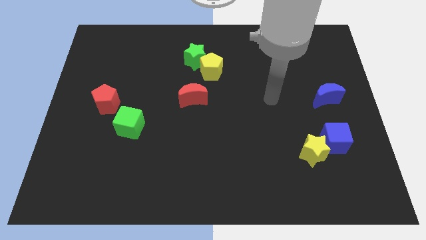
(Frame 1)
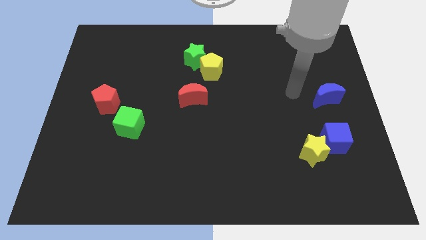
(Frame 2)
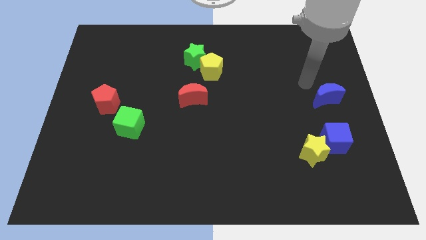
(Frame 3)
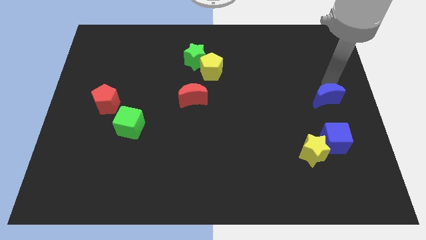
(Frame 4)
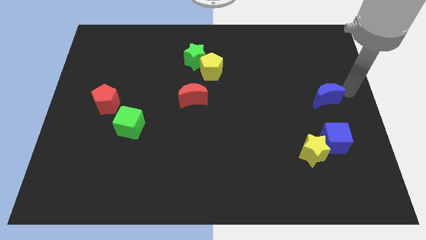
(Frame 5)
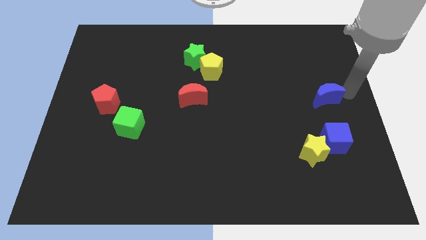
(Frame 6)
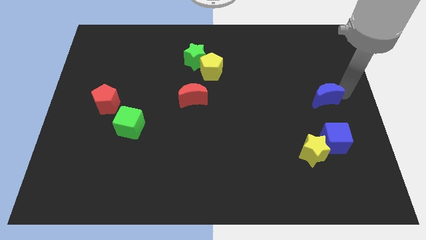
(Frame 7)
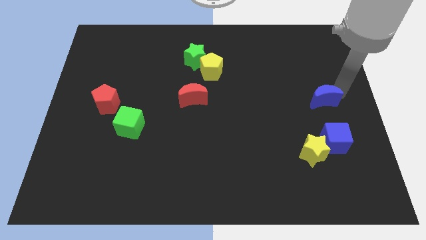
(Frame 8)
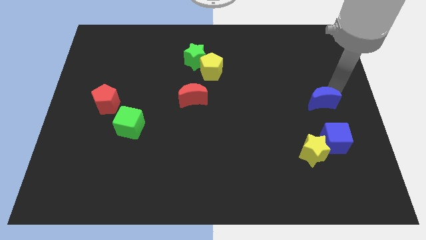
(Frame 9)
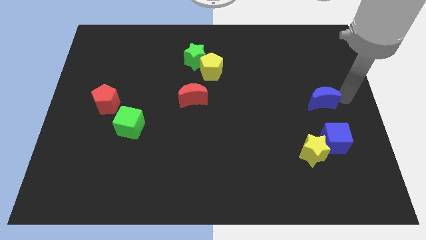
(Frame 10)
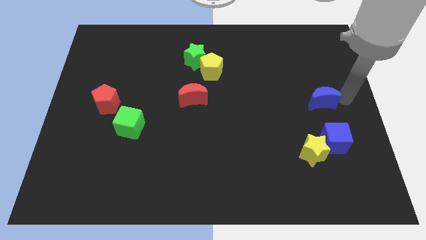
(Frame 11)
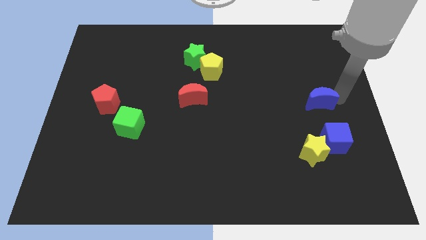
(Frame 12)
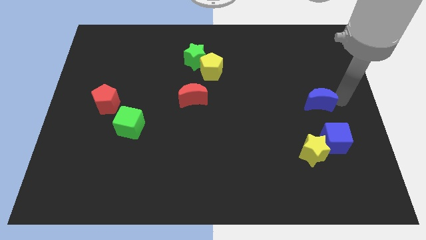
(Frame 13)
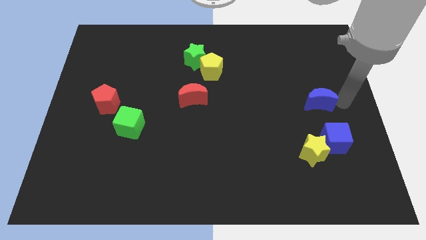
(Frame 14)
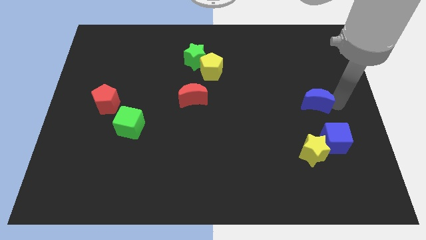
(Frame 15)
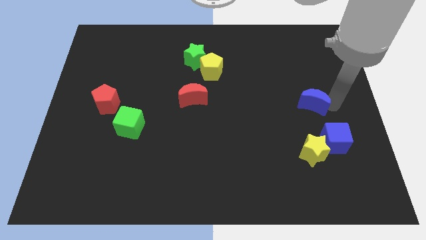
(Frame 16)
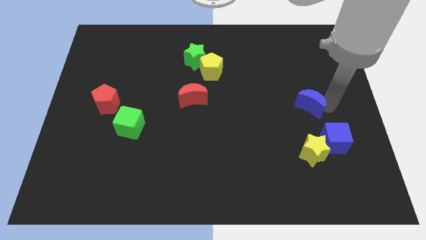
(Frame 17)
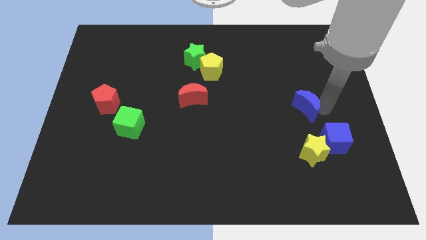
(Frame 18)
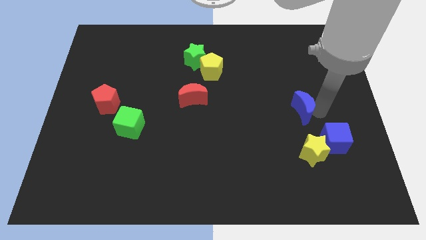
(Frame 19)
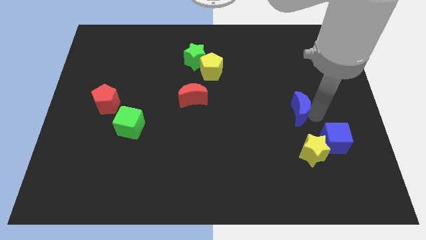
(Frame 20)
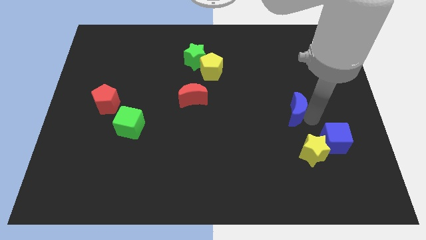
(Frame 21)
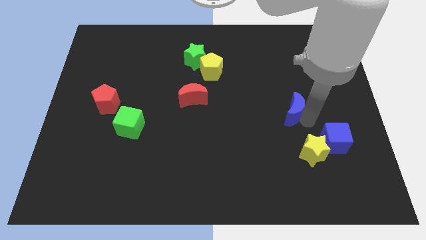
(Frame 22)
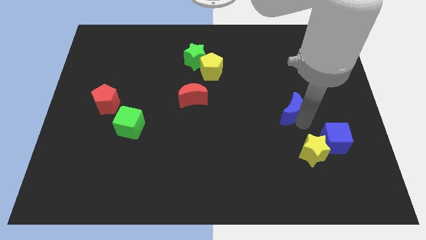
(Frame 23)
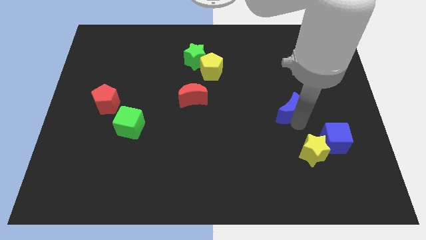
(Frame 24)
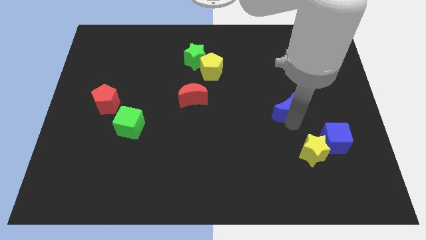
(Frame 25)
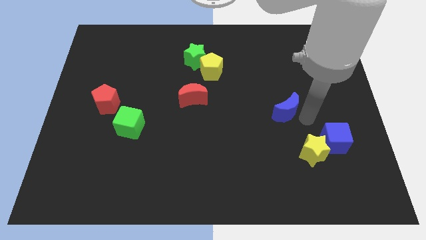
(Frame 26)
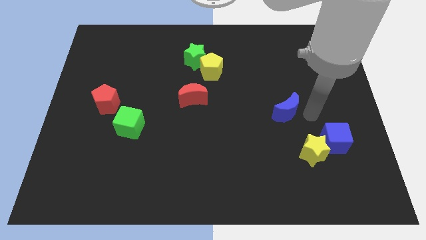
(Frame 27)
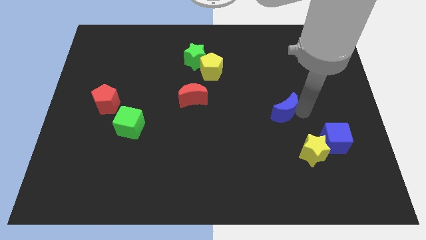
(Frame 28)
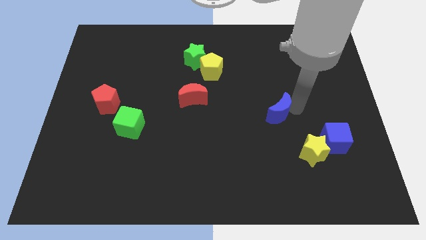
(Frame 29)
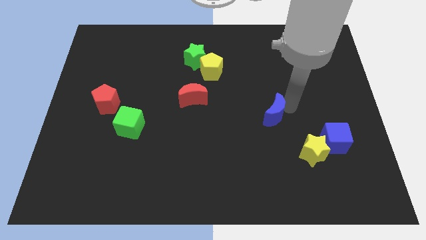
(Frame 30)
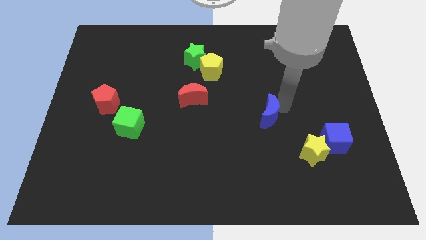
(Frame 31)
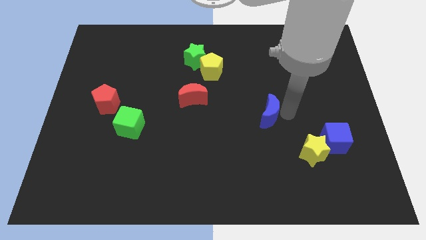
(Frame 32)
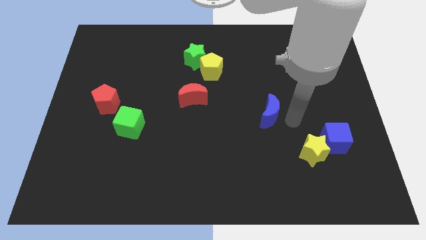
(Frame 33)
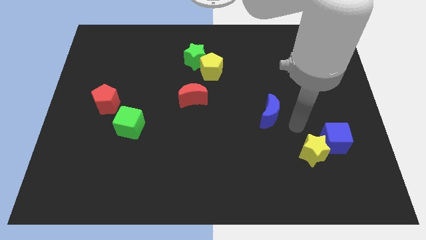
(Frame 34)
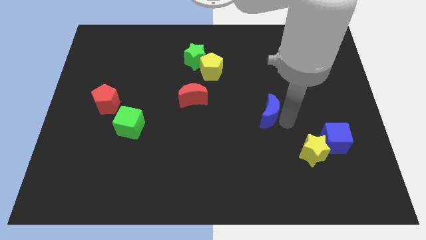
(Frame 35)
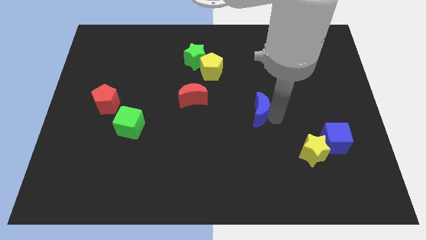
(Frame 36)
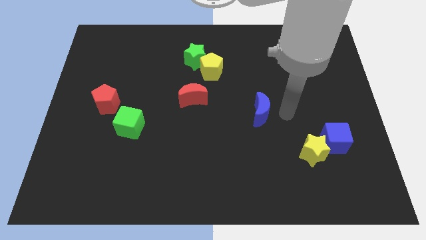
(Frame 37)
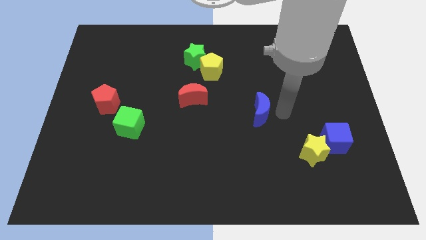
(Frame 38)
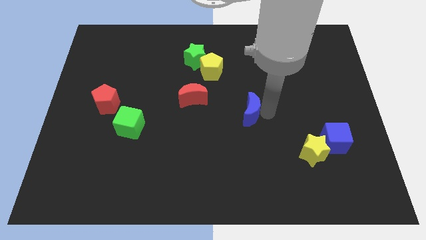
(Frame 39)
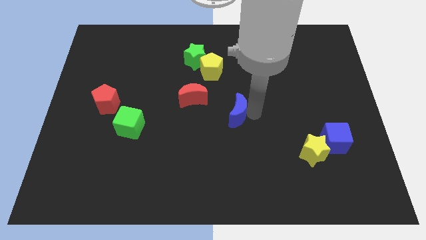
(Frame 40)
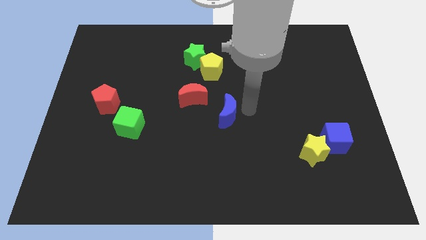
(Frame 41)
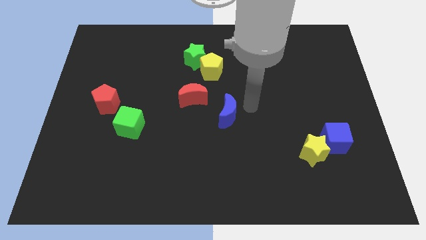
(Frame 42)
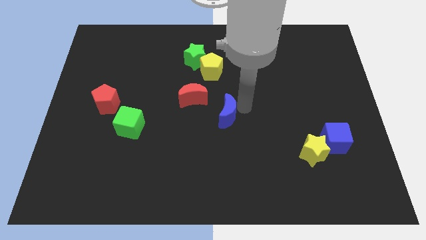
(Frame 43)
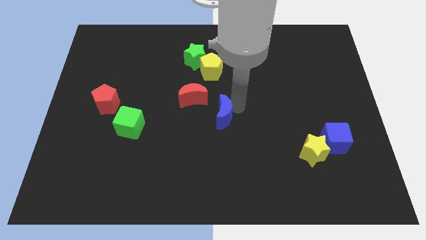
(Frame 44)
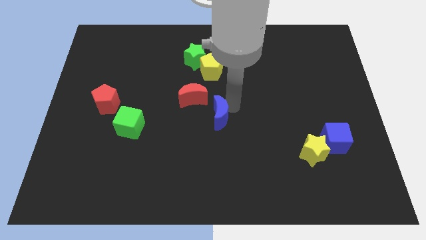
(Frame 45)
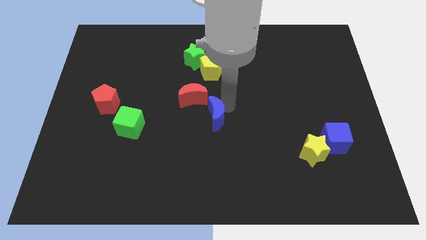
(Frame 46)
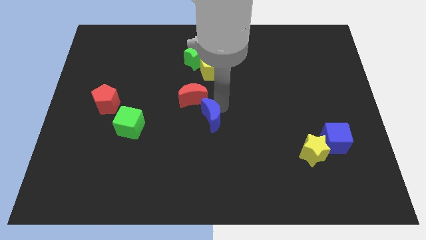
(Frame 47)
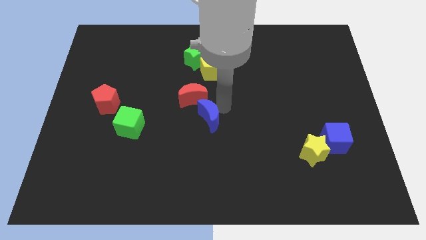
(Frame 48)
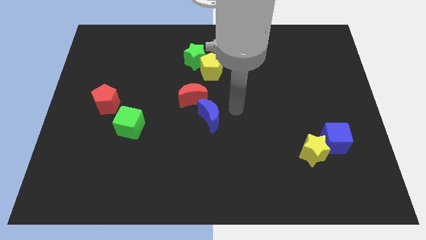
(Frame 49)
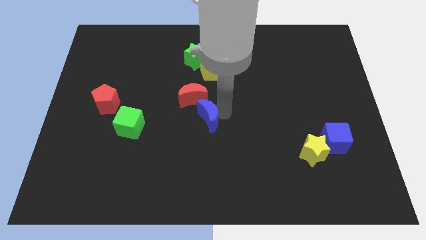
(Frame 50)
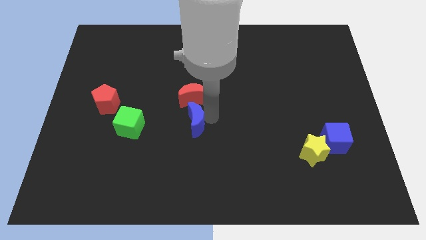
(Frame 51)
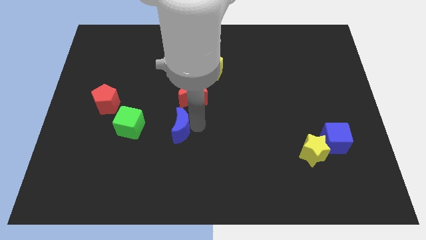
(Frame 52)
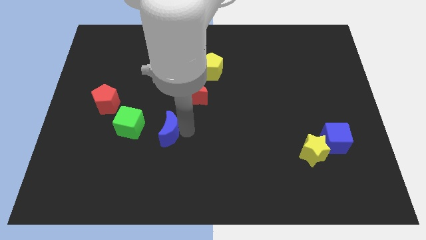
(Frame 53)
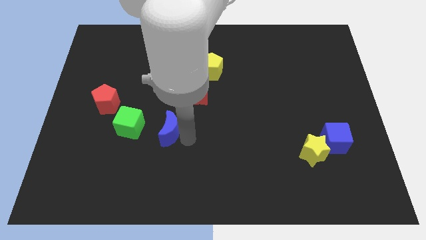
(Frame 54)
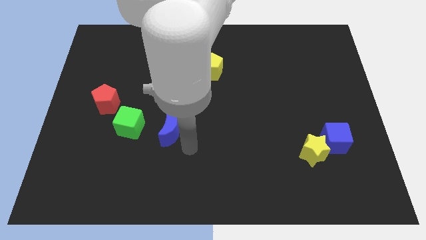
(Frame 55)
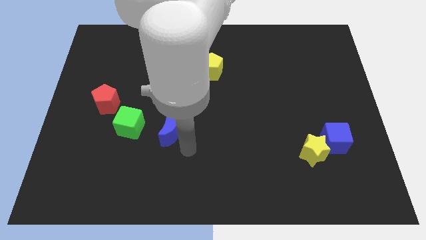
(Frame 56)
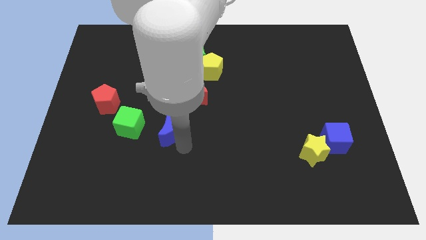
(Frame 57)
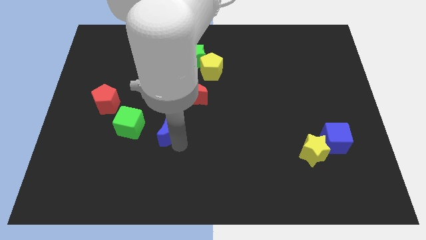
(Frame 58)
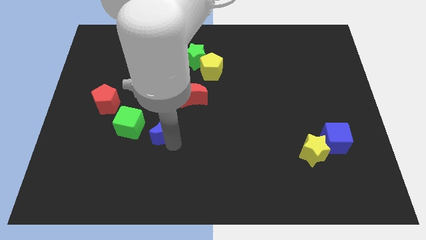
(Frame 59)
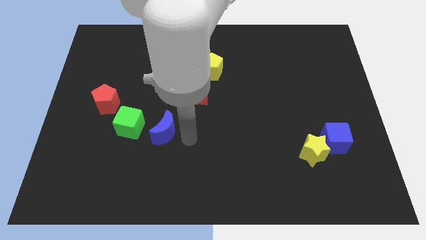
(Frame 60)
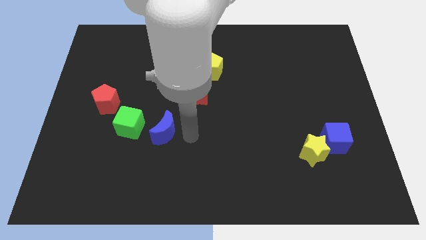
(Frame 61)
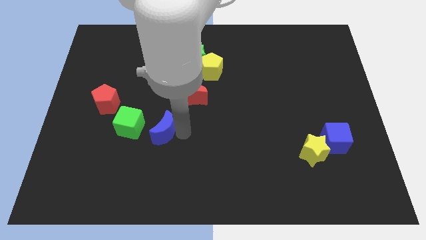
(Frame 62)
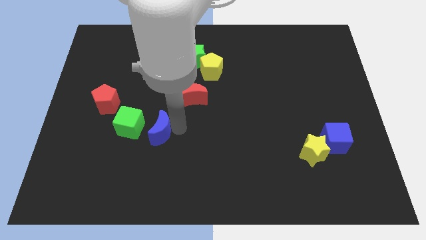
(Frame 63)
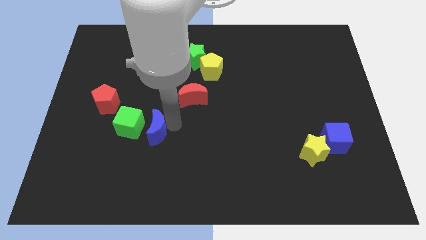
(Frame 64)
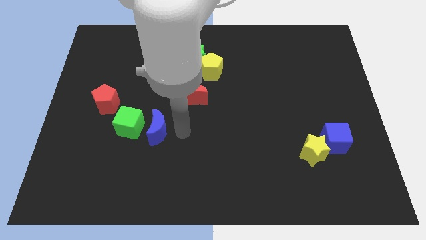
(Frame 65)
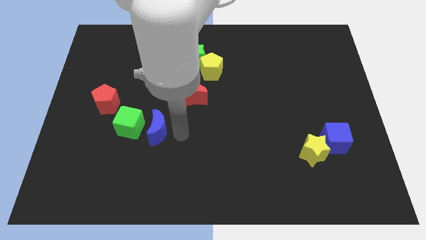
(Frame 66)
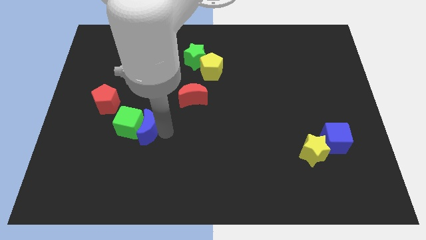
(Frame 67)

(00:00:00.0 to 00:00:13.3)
move the blue moon towards the green cube

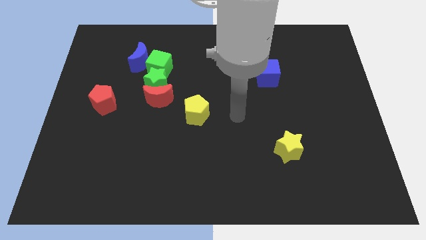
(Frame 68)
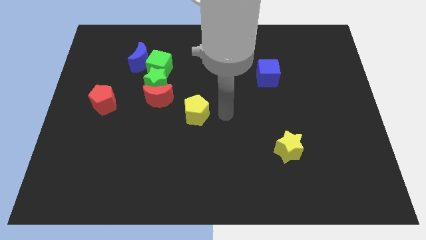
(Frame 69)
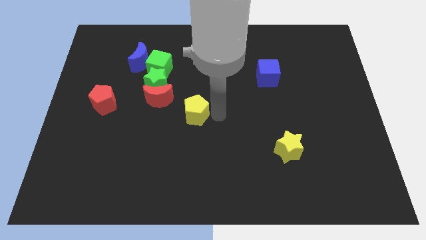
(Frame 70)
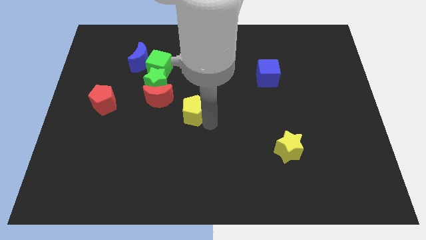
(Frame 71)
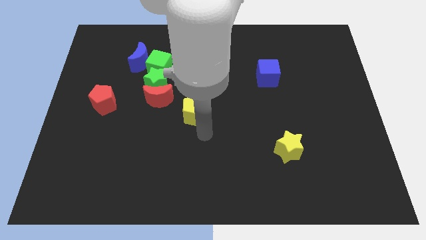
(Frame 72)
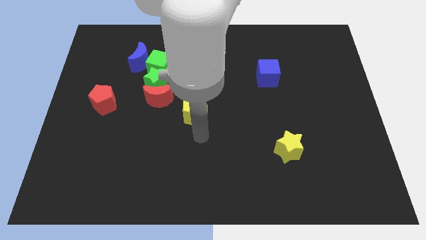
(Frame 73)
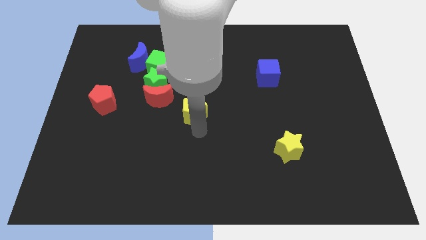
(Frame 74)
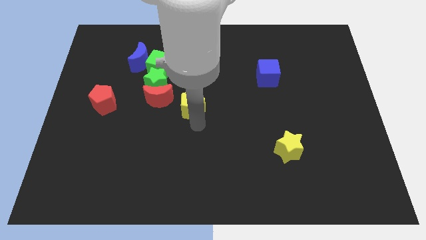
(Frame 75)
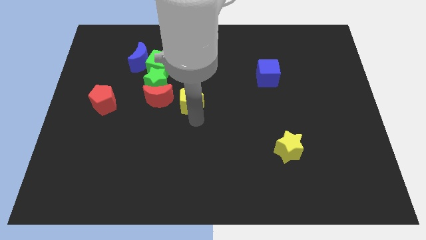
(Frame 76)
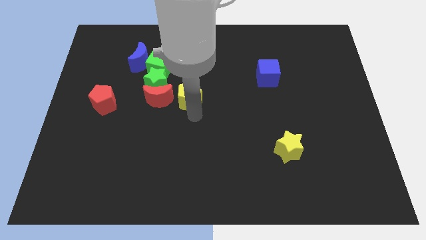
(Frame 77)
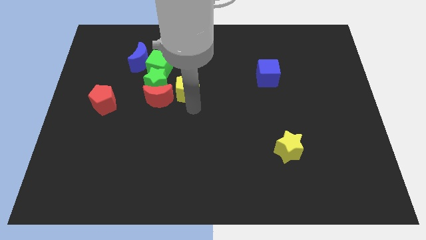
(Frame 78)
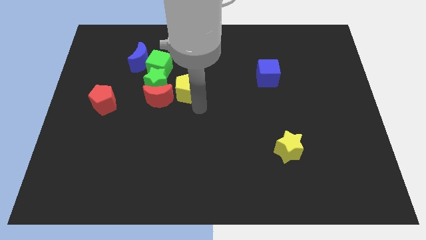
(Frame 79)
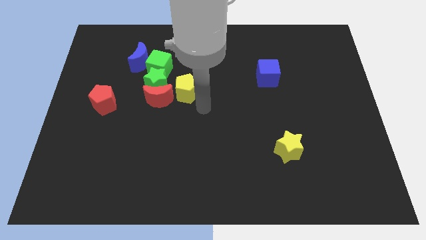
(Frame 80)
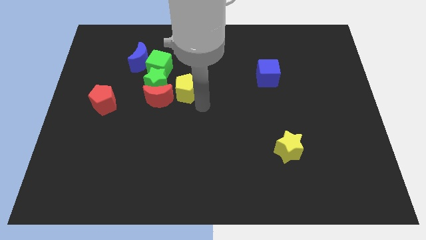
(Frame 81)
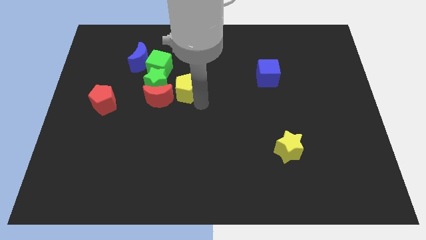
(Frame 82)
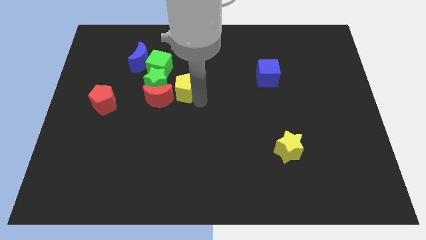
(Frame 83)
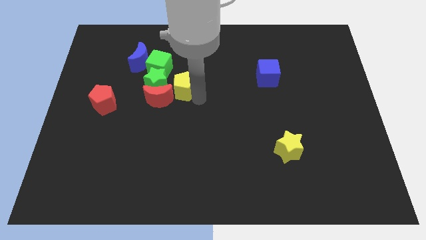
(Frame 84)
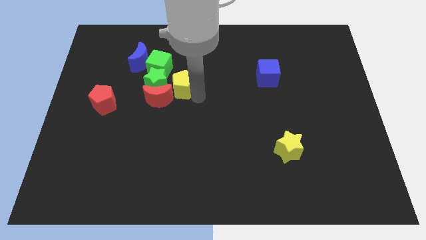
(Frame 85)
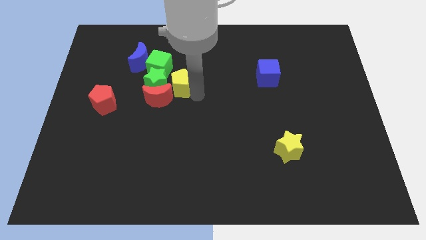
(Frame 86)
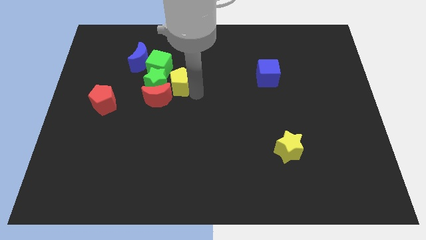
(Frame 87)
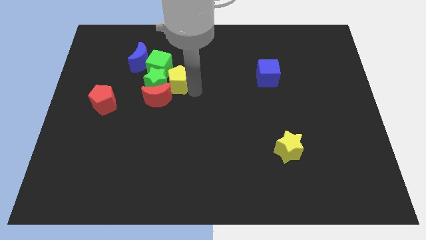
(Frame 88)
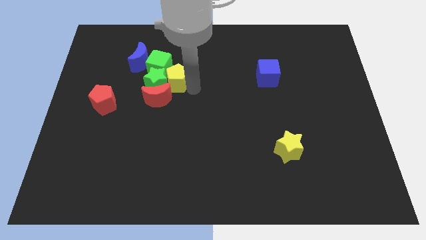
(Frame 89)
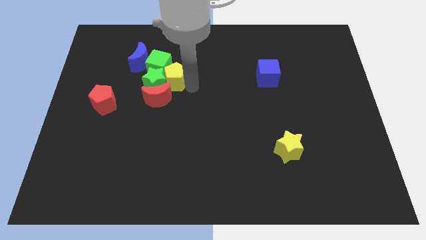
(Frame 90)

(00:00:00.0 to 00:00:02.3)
push the yellow pentagon next to the green cube
